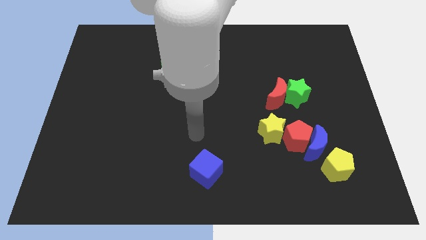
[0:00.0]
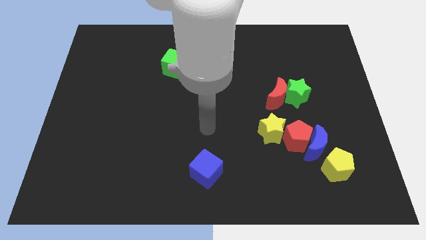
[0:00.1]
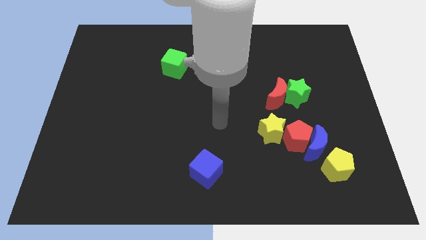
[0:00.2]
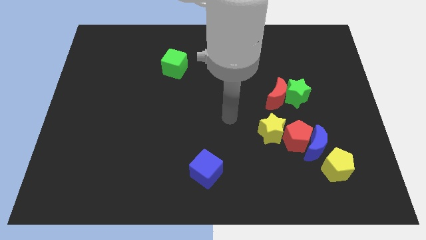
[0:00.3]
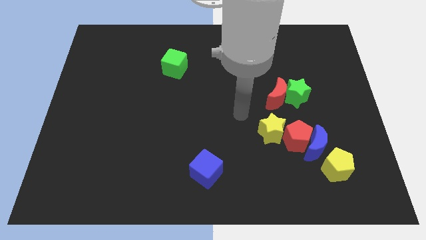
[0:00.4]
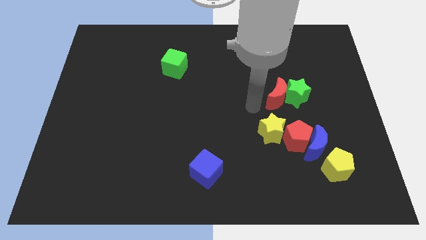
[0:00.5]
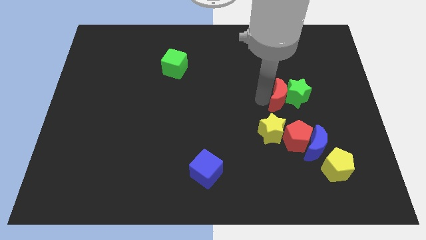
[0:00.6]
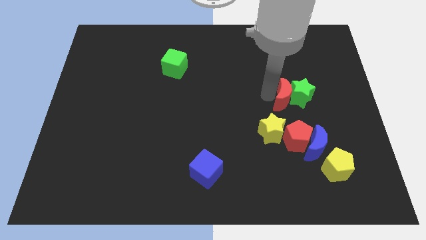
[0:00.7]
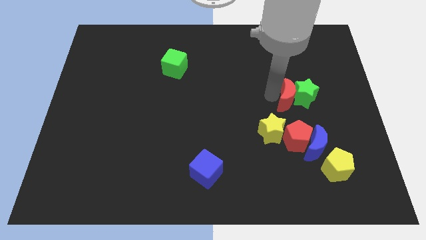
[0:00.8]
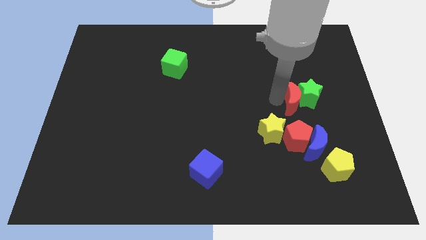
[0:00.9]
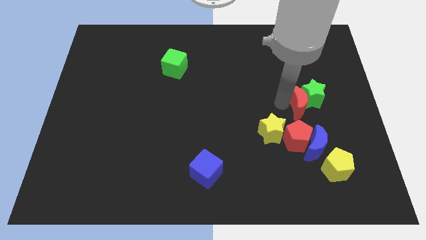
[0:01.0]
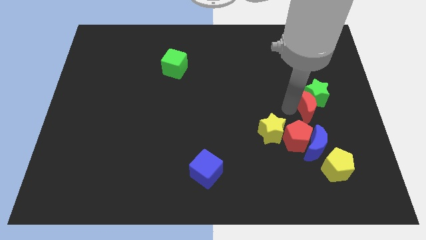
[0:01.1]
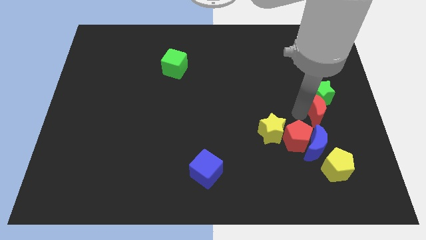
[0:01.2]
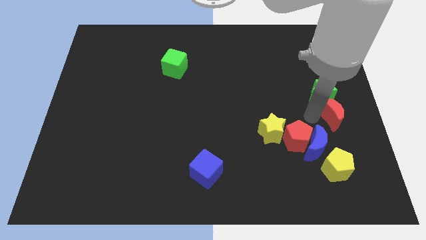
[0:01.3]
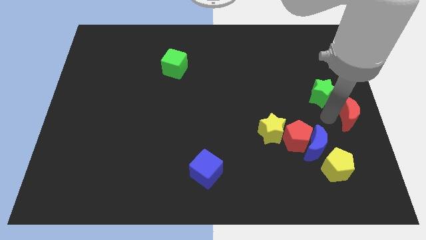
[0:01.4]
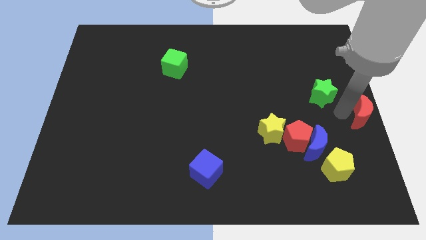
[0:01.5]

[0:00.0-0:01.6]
pull the green star apart from the red moon

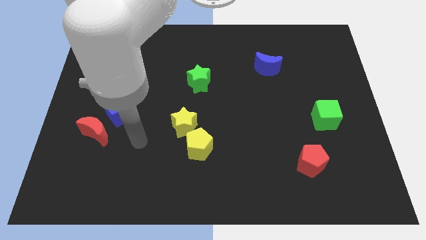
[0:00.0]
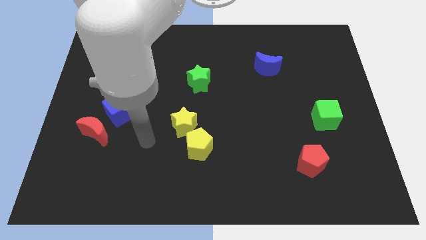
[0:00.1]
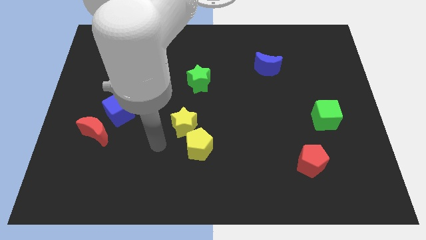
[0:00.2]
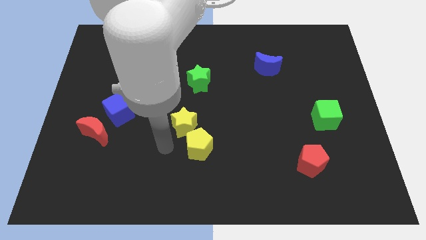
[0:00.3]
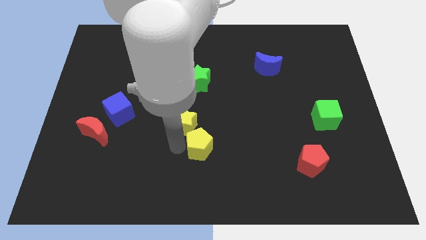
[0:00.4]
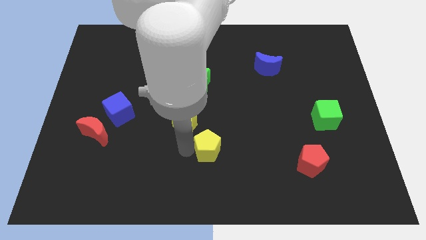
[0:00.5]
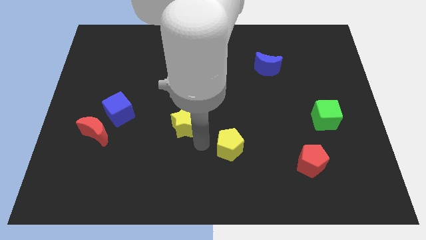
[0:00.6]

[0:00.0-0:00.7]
move the yellow star away from the yellow pentagon

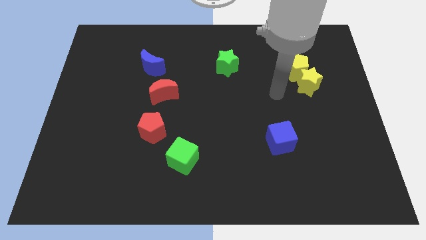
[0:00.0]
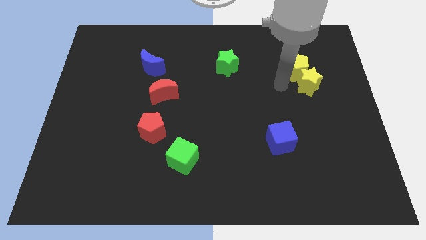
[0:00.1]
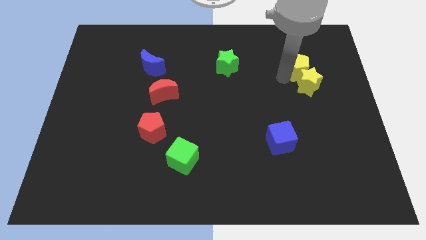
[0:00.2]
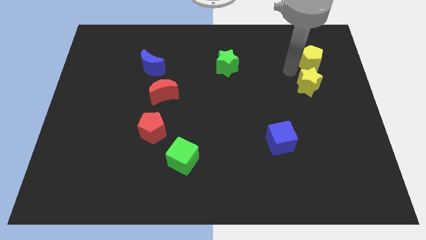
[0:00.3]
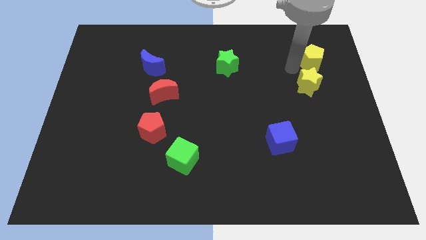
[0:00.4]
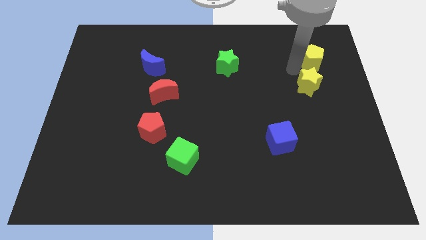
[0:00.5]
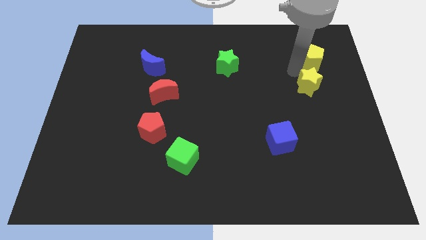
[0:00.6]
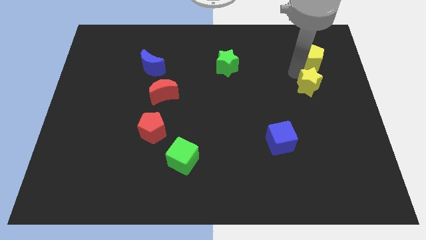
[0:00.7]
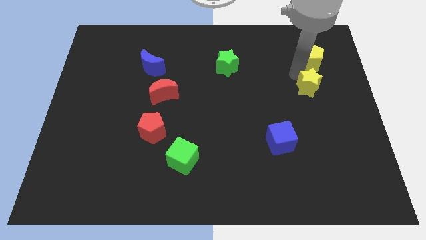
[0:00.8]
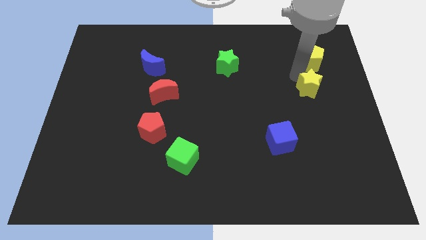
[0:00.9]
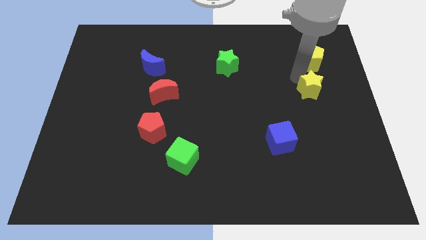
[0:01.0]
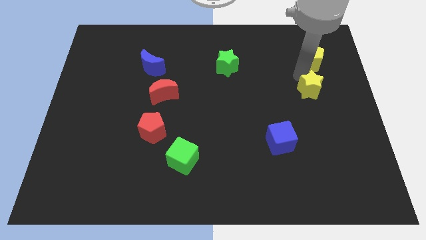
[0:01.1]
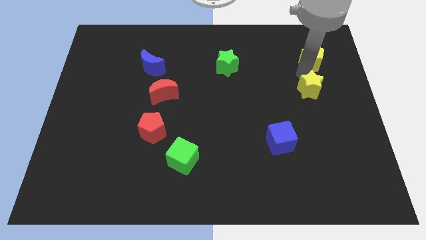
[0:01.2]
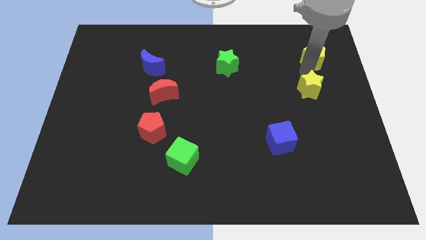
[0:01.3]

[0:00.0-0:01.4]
separate the yellow star from the yellow pentagon

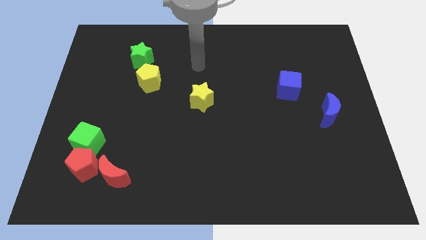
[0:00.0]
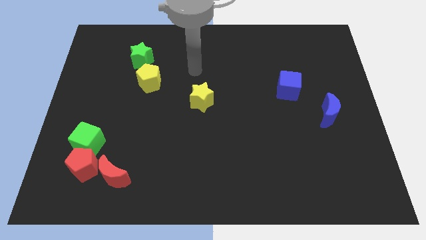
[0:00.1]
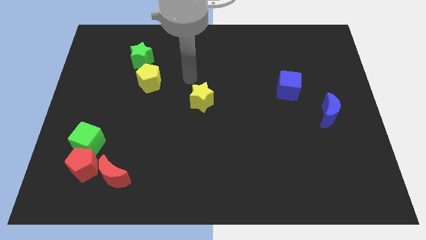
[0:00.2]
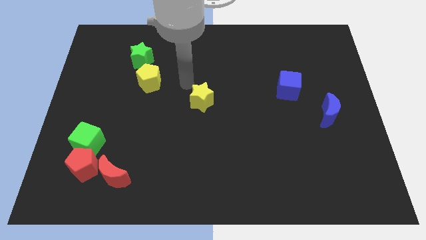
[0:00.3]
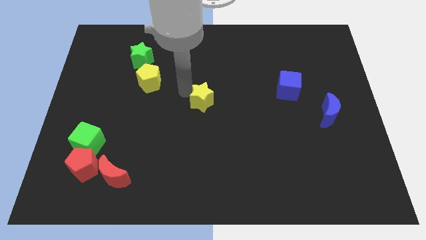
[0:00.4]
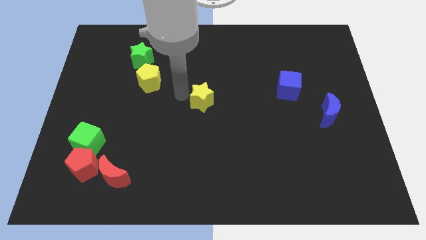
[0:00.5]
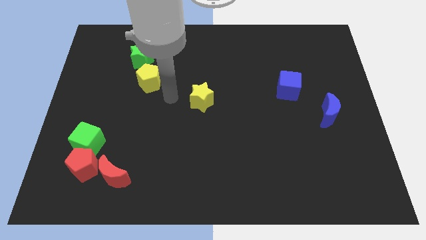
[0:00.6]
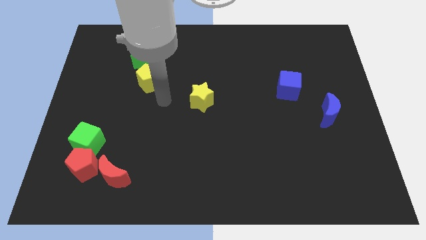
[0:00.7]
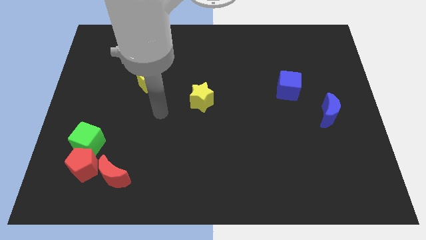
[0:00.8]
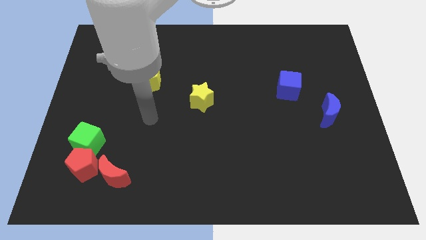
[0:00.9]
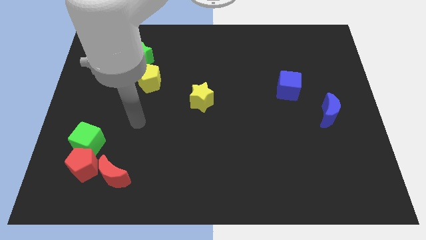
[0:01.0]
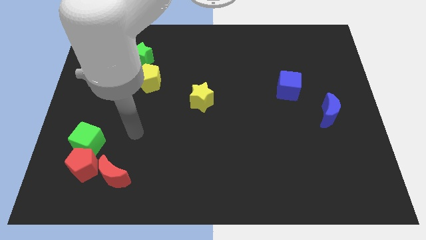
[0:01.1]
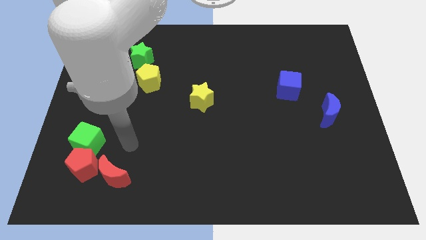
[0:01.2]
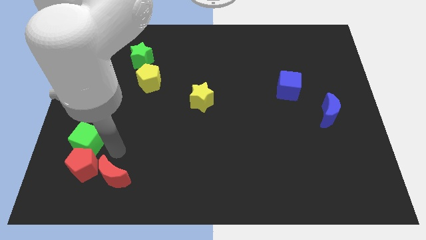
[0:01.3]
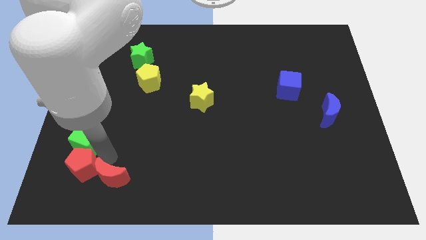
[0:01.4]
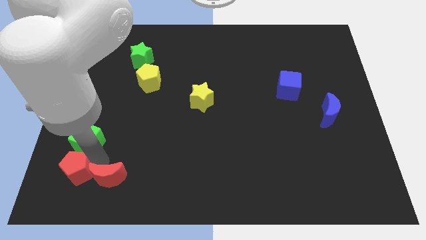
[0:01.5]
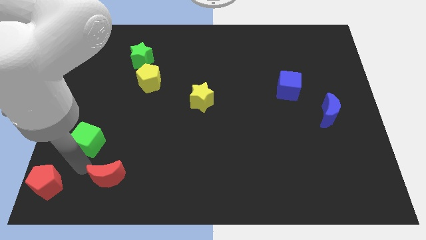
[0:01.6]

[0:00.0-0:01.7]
separate the green cube from the red pentagon

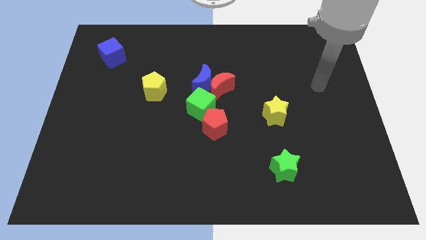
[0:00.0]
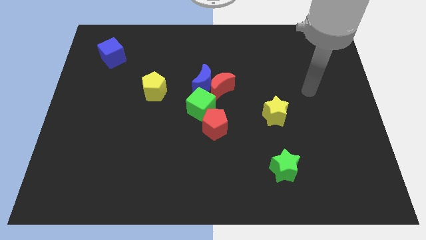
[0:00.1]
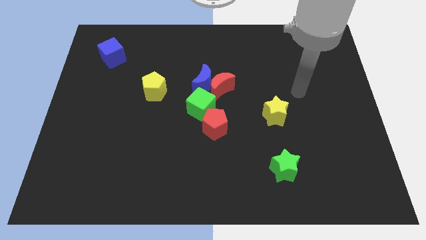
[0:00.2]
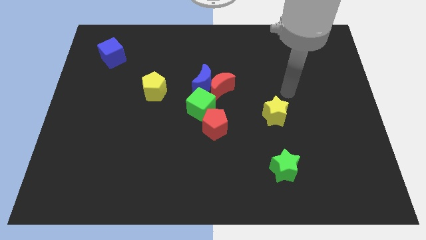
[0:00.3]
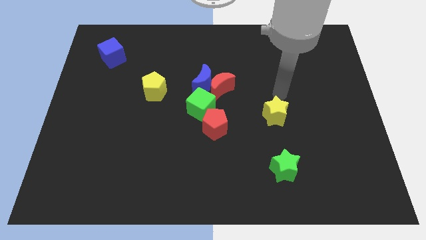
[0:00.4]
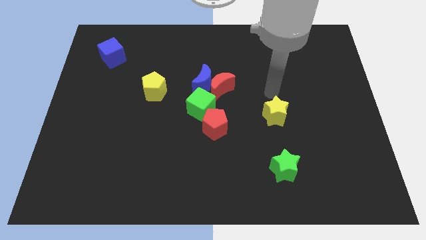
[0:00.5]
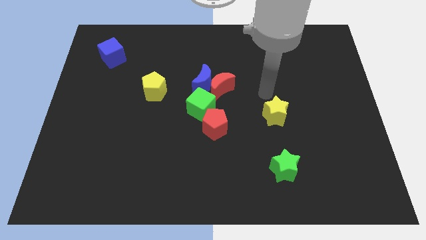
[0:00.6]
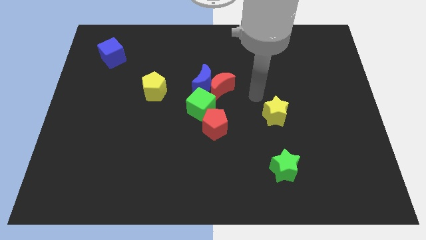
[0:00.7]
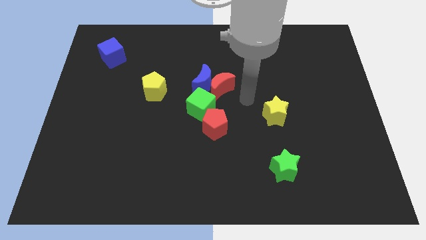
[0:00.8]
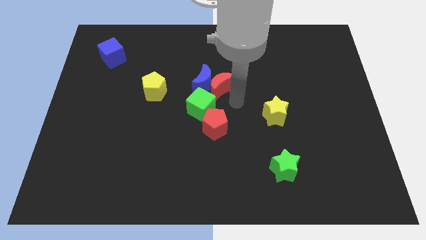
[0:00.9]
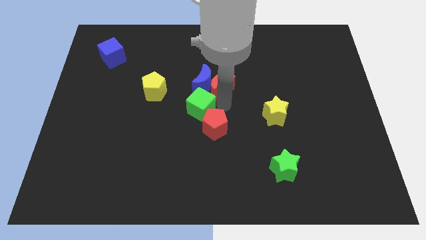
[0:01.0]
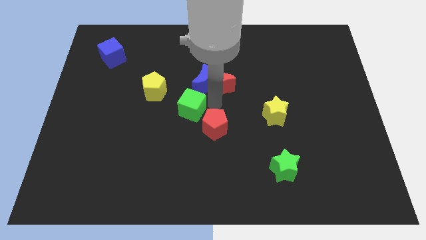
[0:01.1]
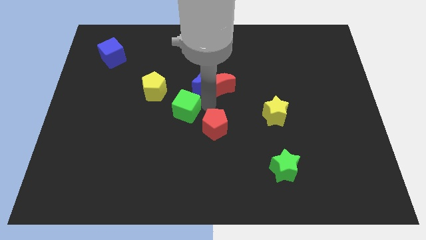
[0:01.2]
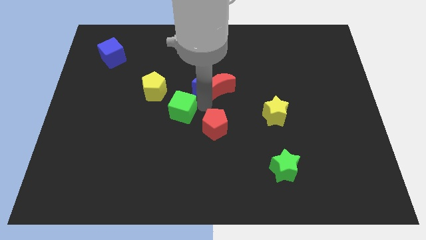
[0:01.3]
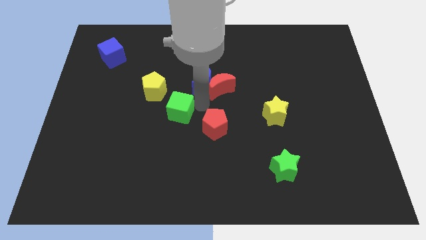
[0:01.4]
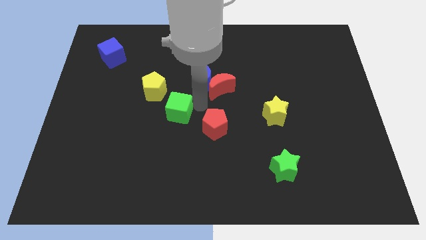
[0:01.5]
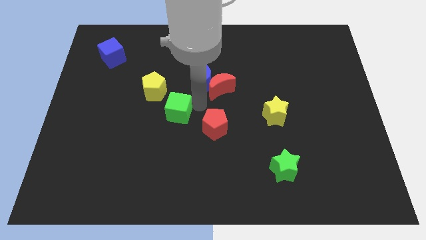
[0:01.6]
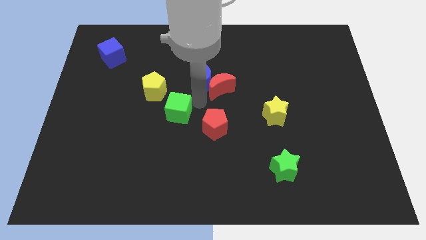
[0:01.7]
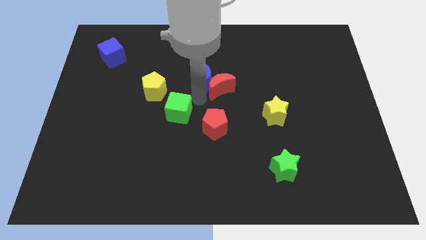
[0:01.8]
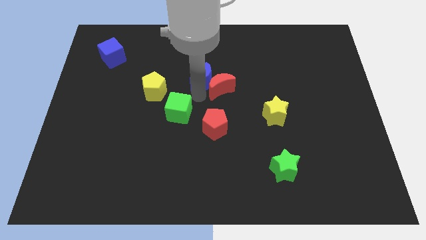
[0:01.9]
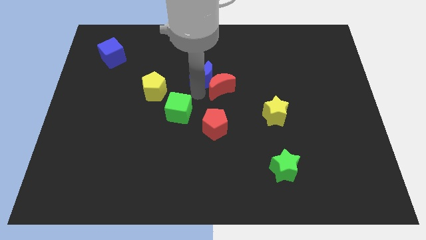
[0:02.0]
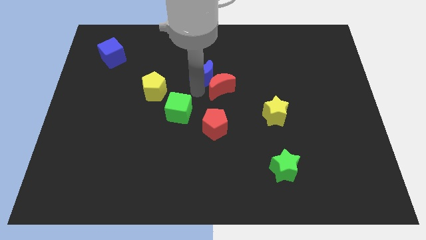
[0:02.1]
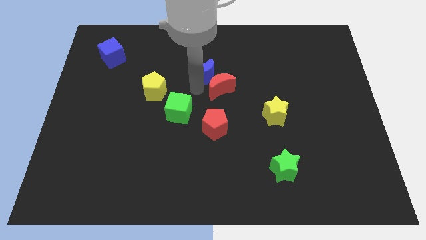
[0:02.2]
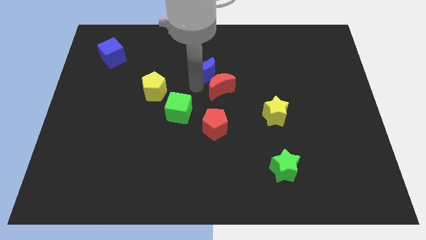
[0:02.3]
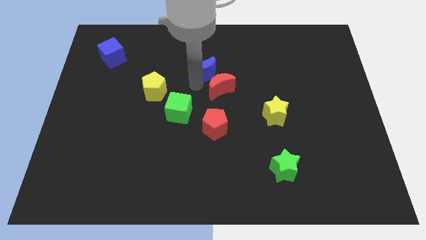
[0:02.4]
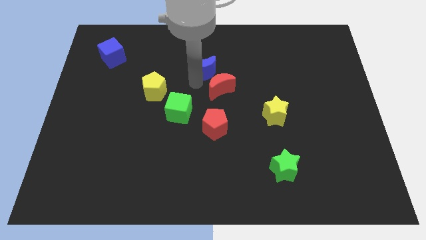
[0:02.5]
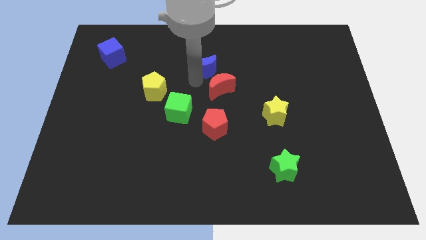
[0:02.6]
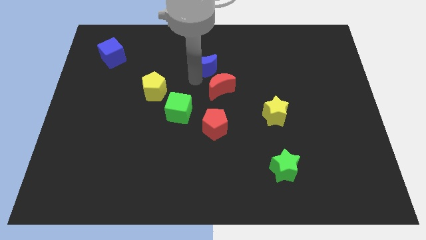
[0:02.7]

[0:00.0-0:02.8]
separate the blue moon from the red moon and green cube

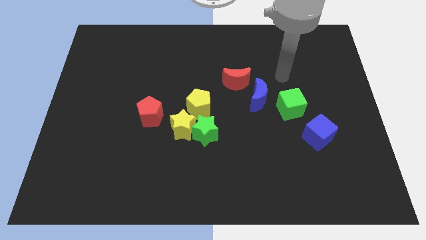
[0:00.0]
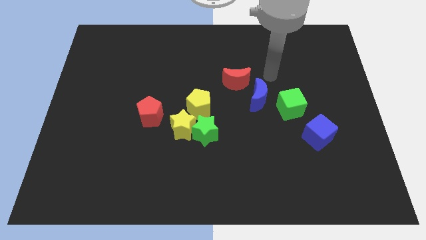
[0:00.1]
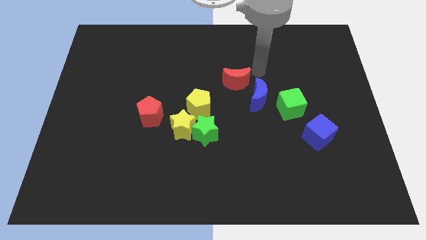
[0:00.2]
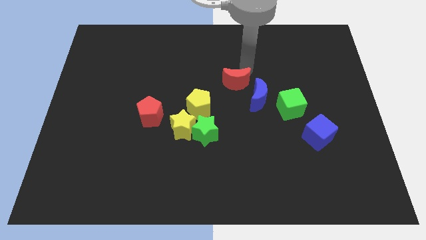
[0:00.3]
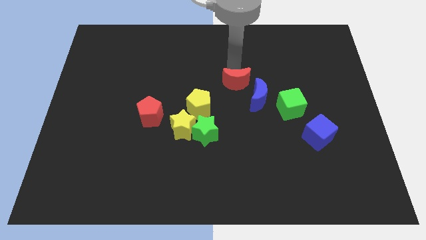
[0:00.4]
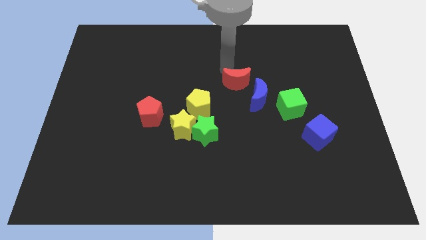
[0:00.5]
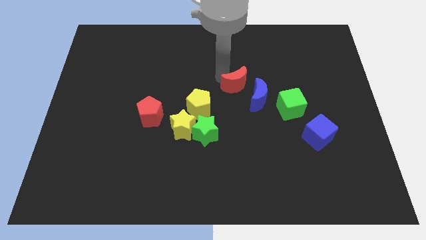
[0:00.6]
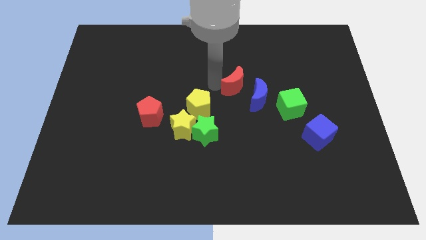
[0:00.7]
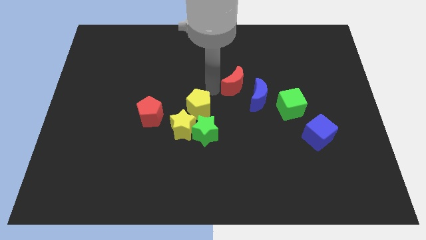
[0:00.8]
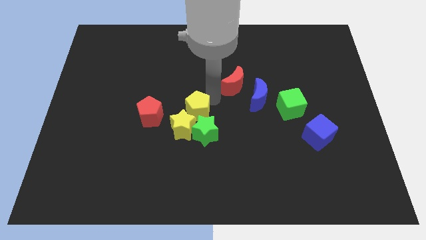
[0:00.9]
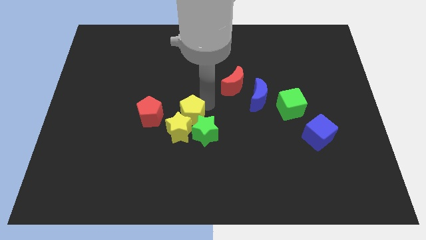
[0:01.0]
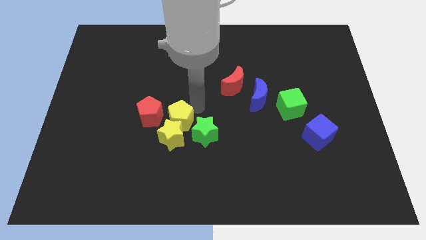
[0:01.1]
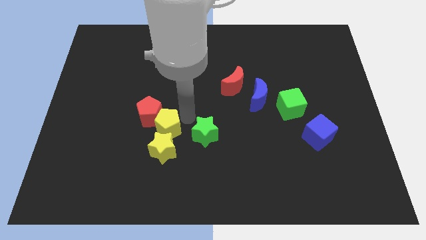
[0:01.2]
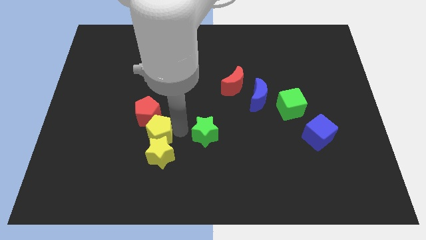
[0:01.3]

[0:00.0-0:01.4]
pull the green star apart from the yellow star and yellow pentagon
